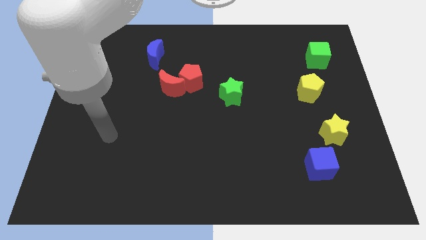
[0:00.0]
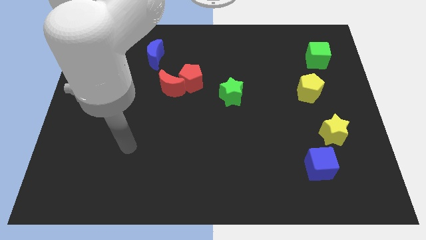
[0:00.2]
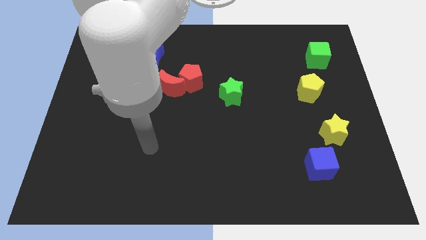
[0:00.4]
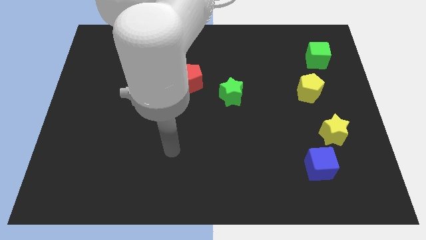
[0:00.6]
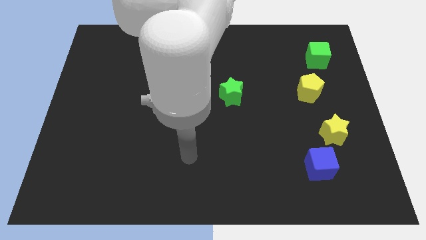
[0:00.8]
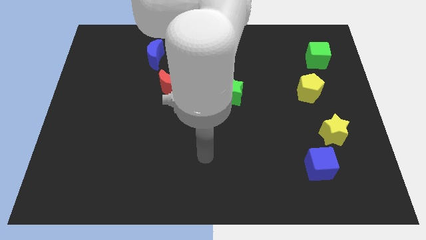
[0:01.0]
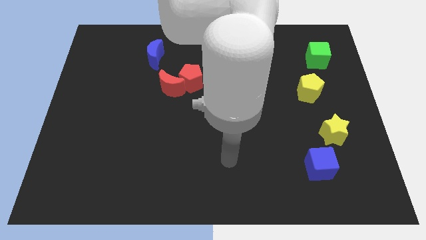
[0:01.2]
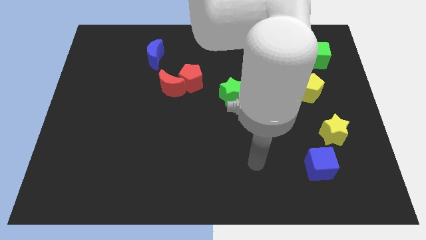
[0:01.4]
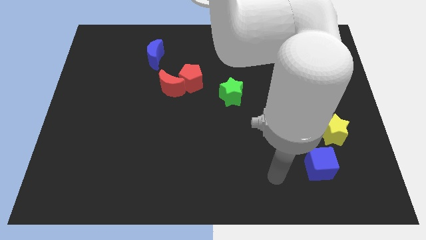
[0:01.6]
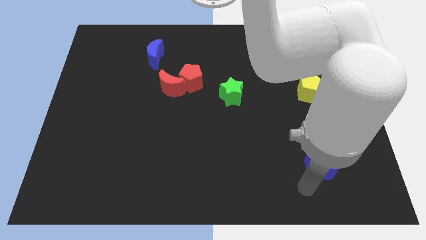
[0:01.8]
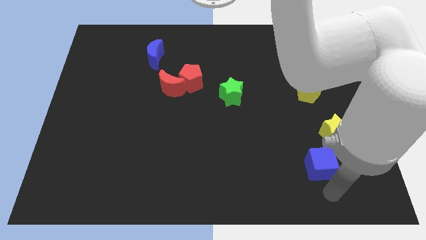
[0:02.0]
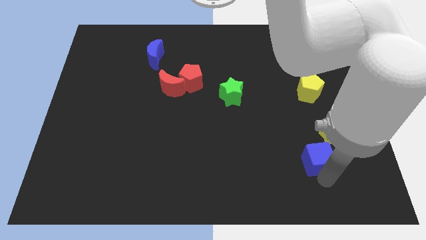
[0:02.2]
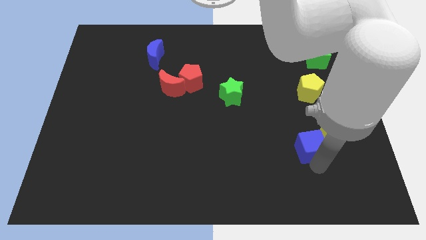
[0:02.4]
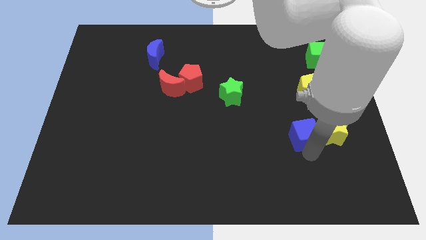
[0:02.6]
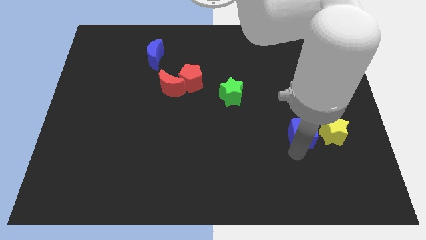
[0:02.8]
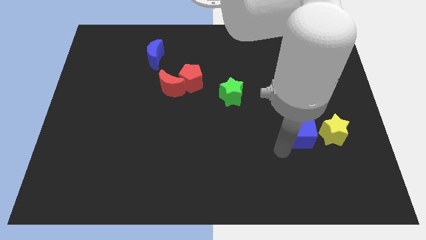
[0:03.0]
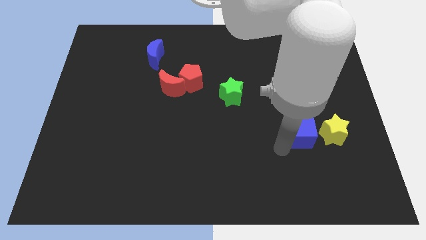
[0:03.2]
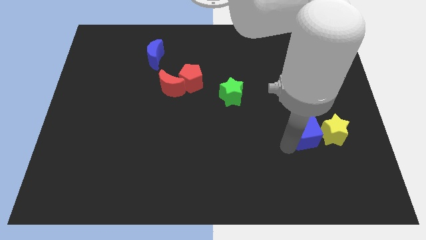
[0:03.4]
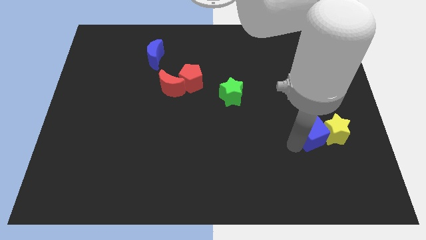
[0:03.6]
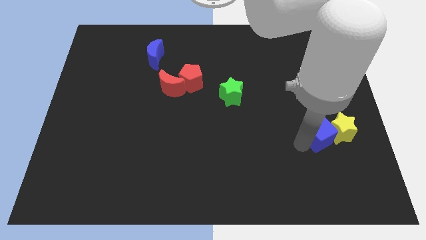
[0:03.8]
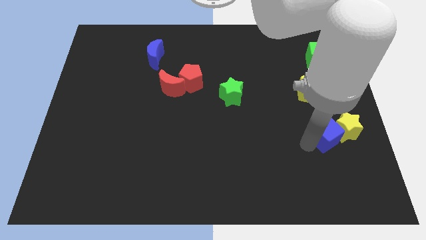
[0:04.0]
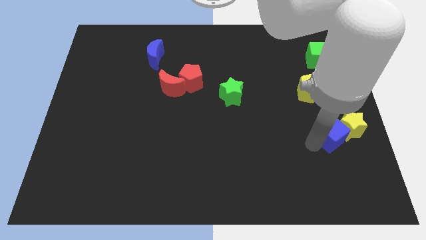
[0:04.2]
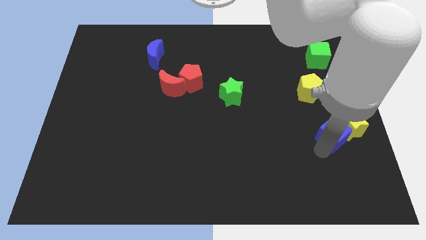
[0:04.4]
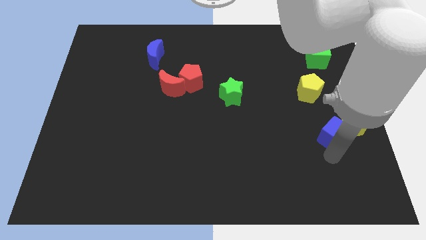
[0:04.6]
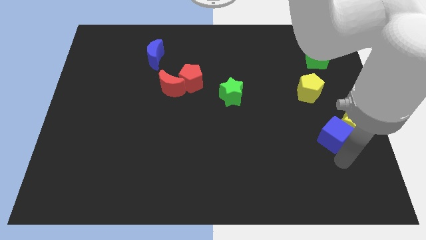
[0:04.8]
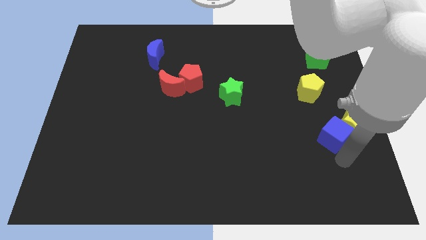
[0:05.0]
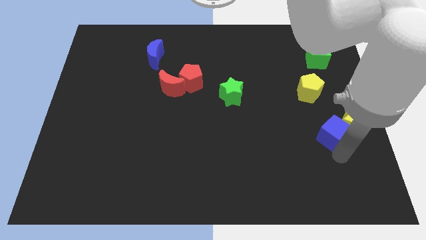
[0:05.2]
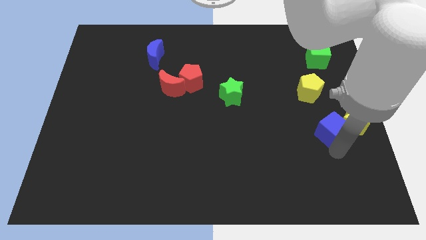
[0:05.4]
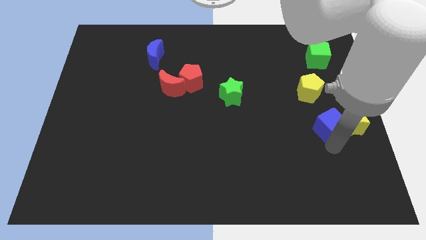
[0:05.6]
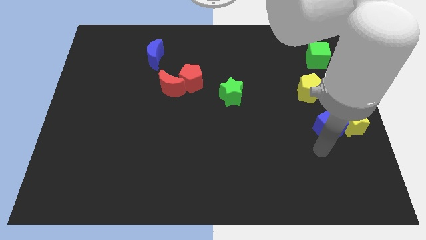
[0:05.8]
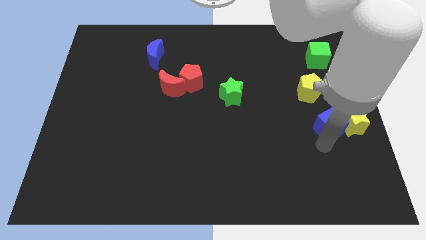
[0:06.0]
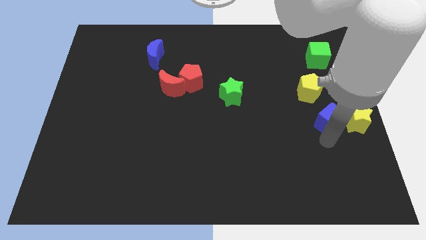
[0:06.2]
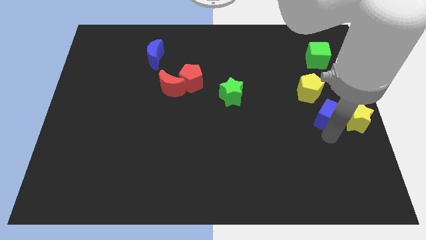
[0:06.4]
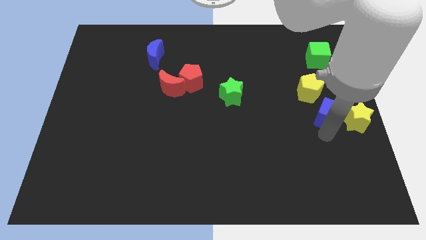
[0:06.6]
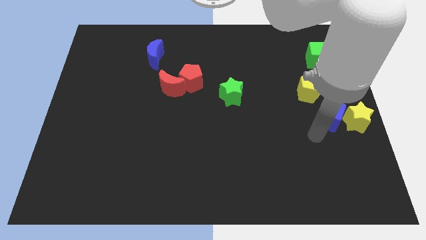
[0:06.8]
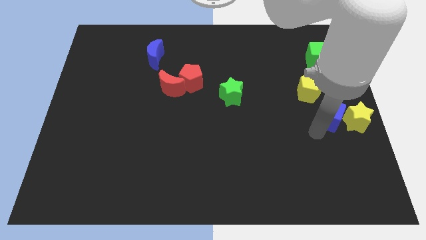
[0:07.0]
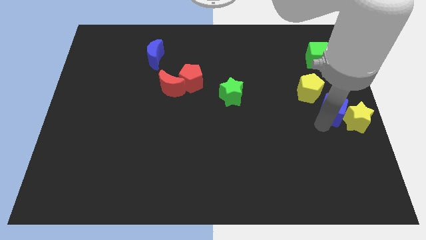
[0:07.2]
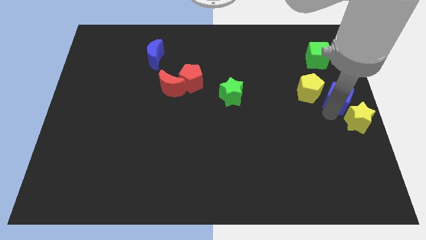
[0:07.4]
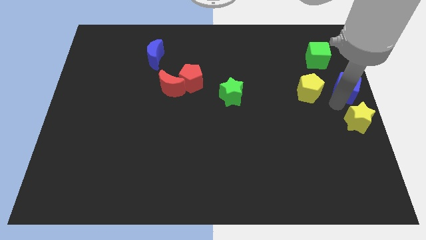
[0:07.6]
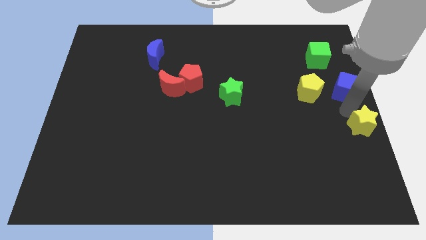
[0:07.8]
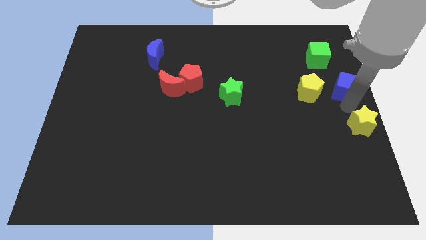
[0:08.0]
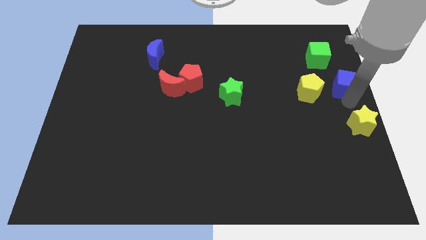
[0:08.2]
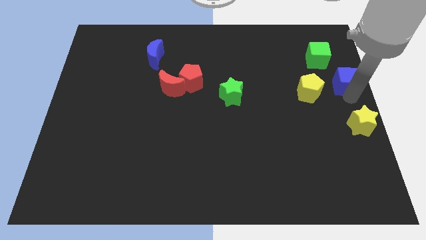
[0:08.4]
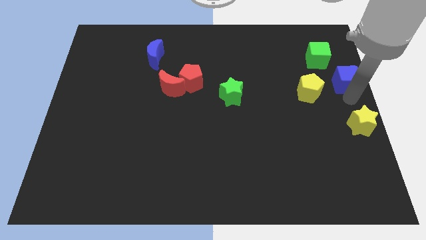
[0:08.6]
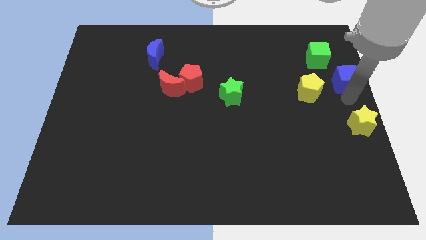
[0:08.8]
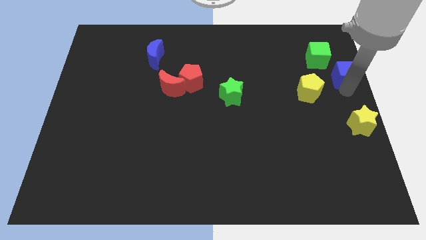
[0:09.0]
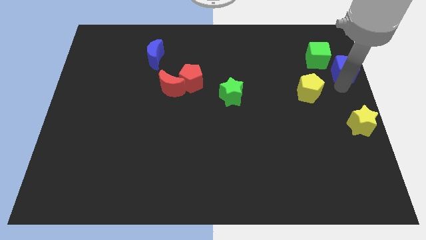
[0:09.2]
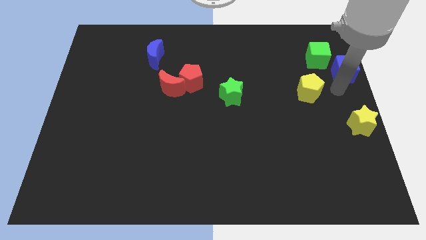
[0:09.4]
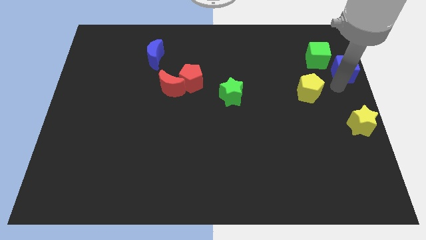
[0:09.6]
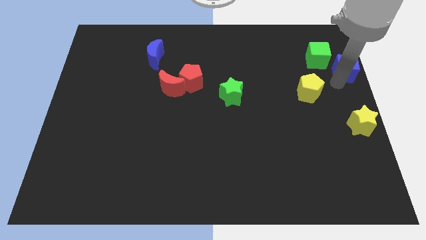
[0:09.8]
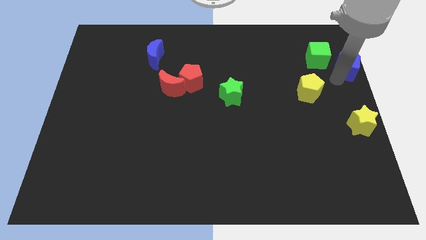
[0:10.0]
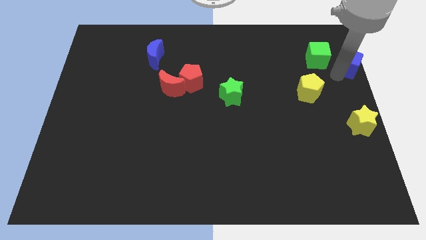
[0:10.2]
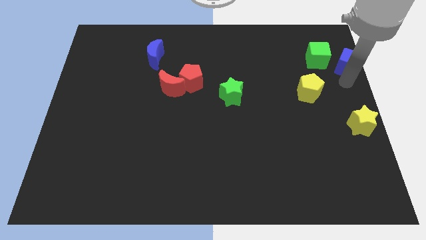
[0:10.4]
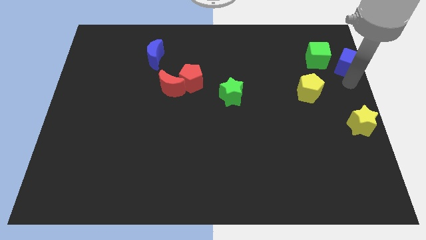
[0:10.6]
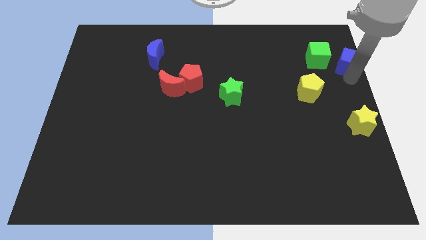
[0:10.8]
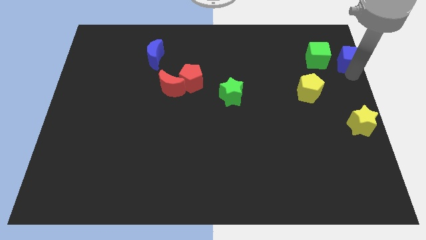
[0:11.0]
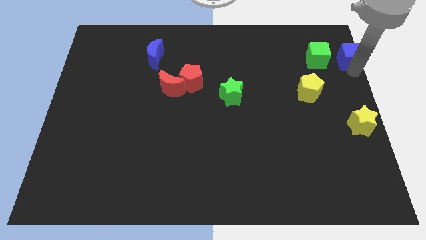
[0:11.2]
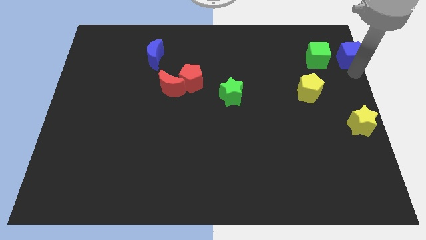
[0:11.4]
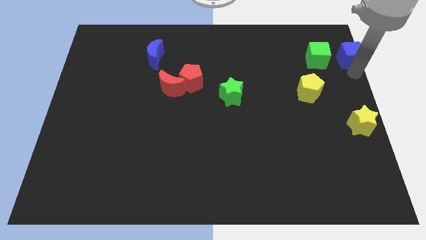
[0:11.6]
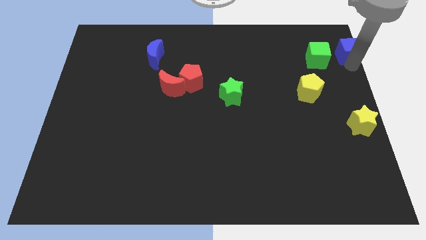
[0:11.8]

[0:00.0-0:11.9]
push the blue cube to the top right corner

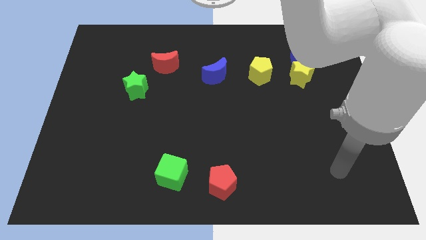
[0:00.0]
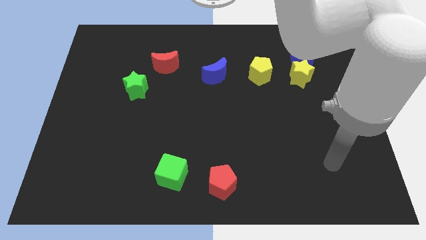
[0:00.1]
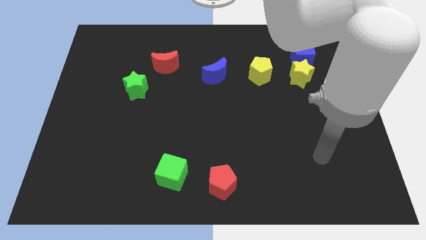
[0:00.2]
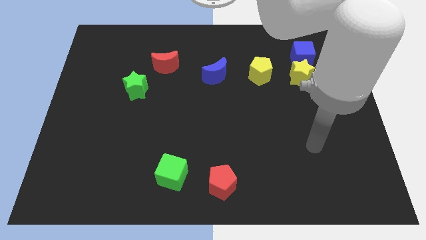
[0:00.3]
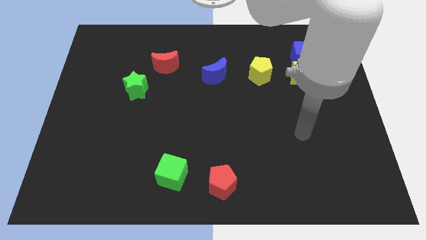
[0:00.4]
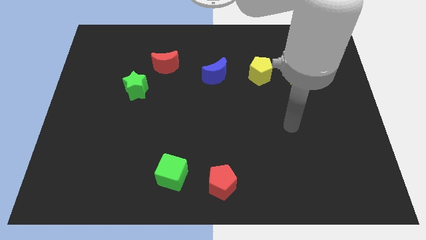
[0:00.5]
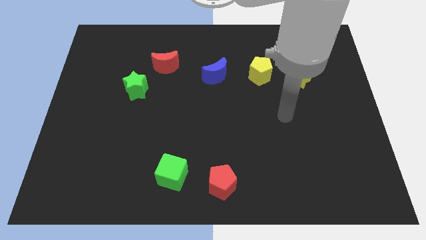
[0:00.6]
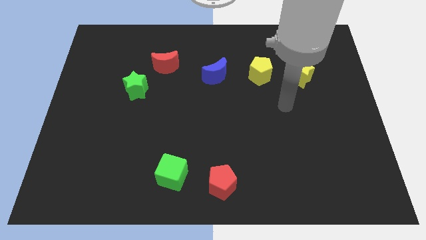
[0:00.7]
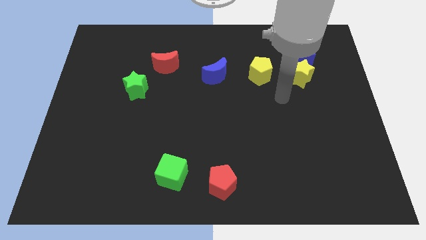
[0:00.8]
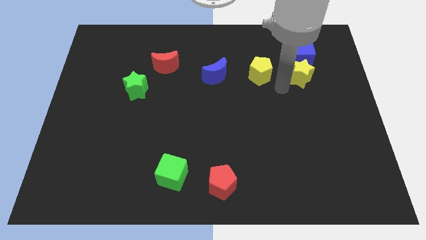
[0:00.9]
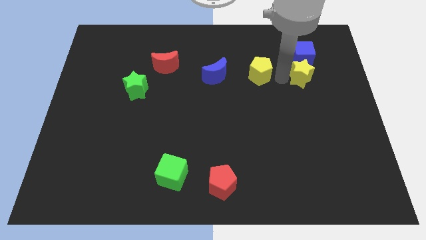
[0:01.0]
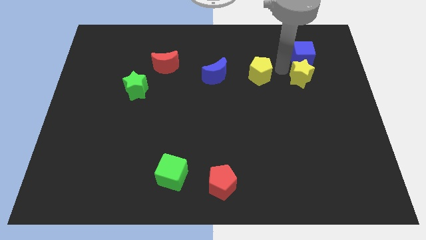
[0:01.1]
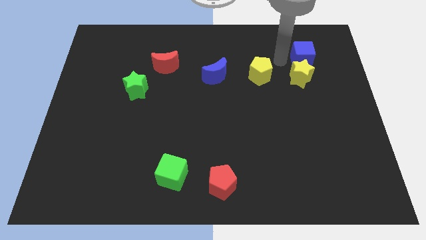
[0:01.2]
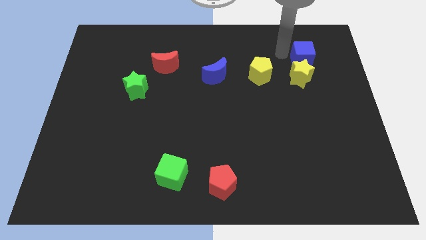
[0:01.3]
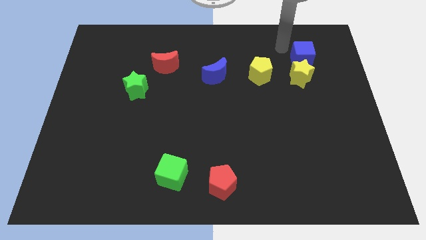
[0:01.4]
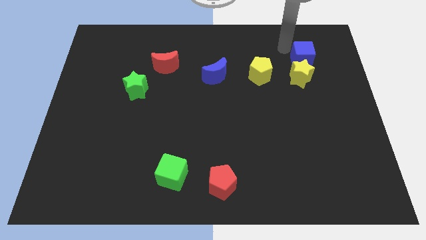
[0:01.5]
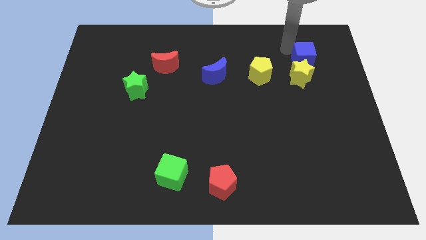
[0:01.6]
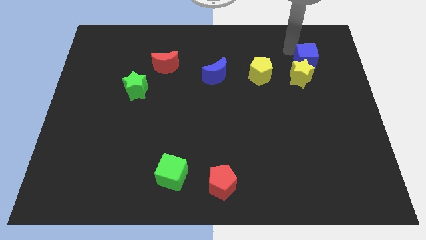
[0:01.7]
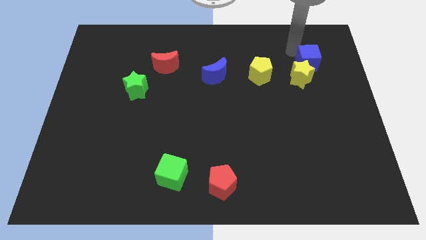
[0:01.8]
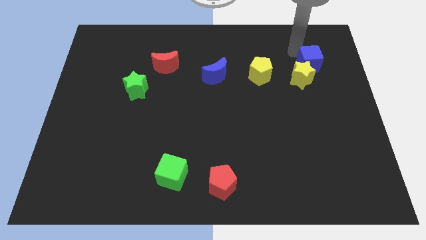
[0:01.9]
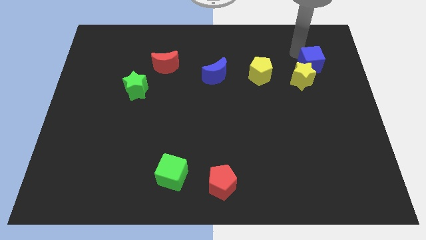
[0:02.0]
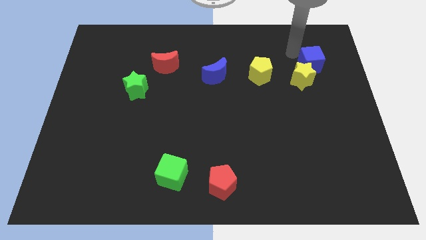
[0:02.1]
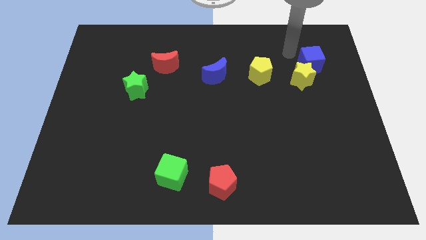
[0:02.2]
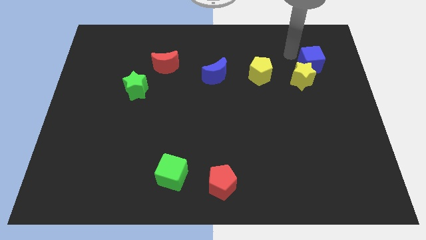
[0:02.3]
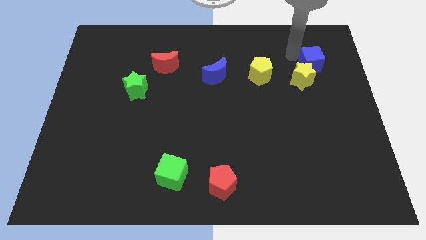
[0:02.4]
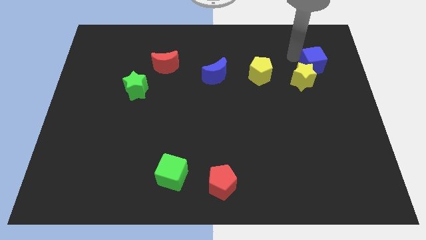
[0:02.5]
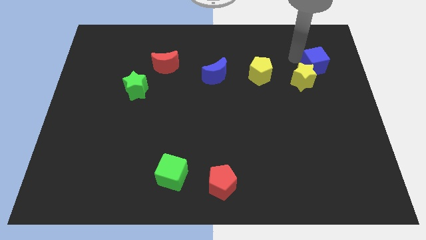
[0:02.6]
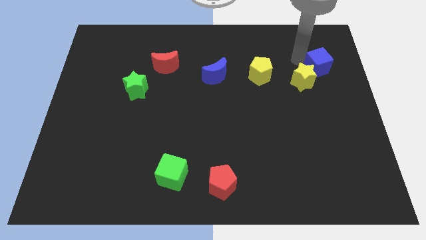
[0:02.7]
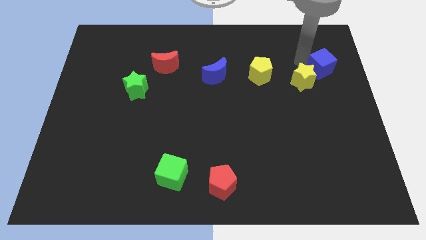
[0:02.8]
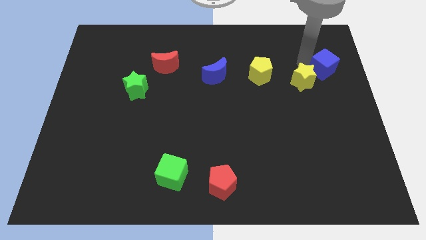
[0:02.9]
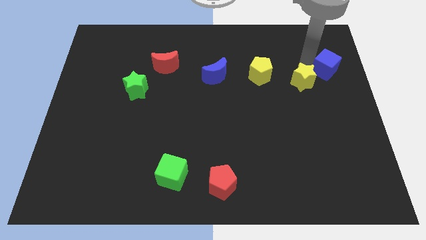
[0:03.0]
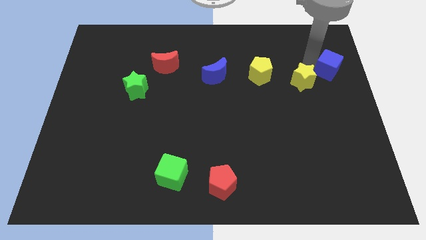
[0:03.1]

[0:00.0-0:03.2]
push the blue cube to the right side
